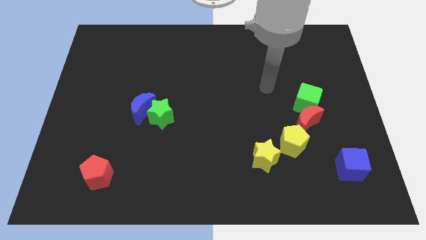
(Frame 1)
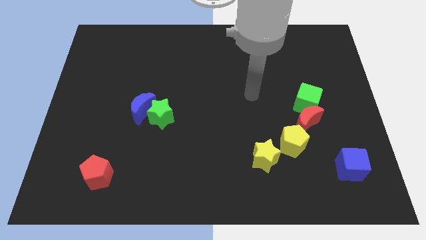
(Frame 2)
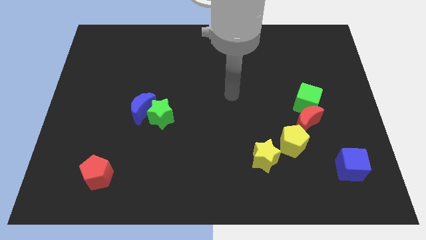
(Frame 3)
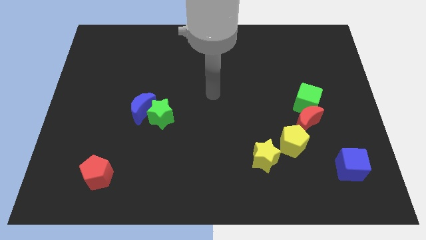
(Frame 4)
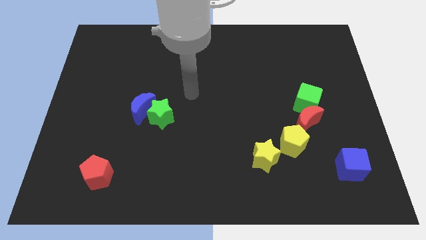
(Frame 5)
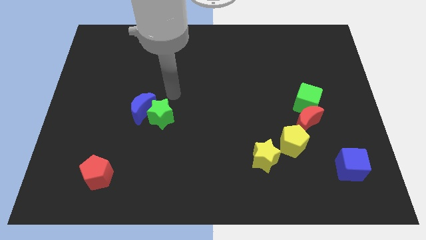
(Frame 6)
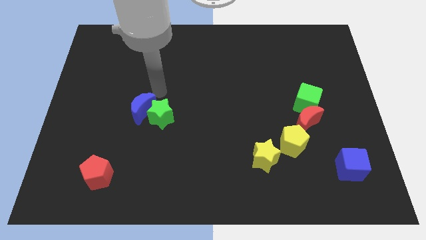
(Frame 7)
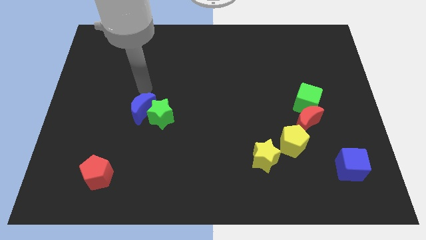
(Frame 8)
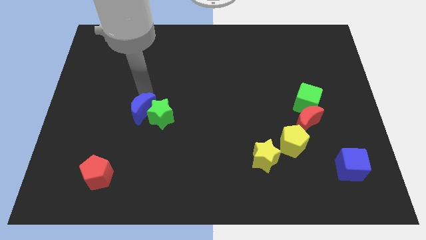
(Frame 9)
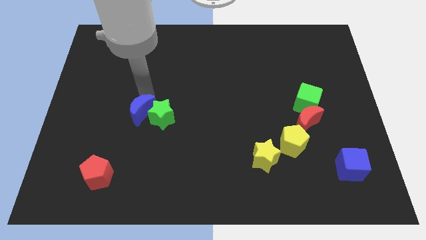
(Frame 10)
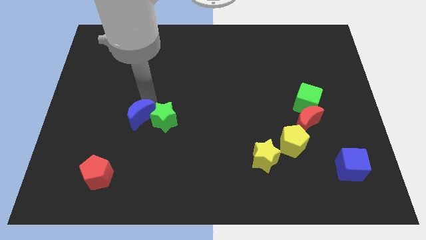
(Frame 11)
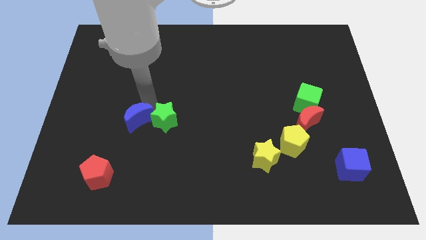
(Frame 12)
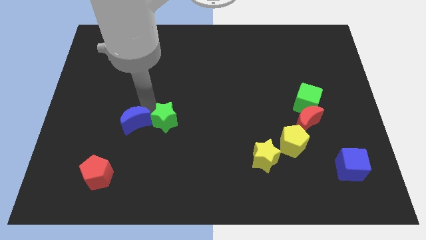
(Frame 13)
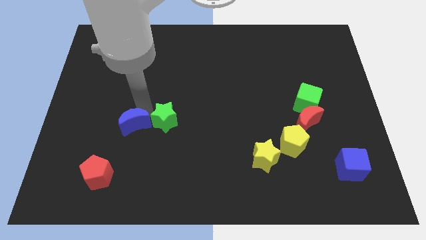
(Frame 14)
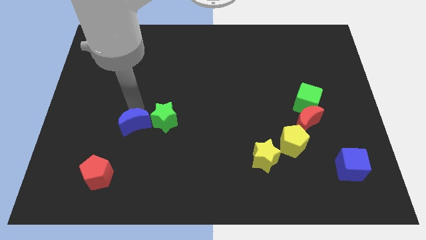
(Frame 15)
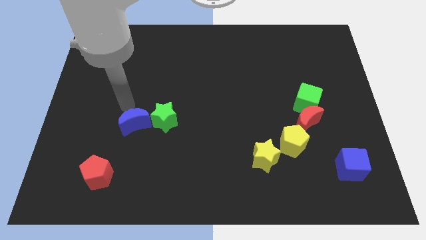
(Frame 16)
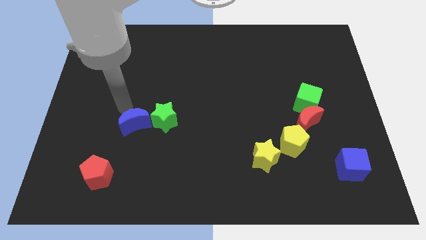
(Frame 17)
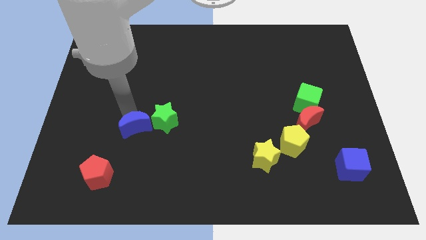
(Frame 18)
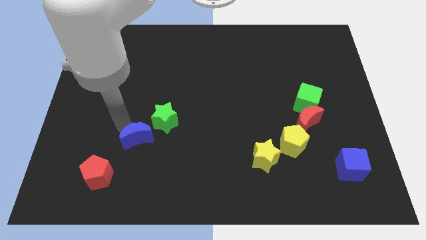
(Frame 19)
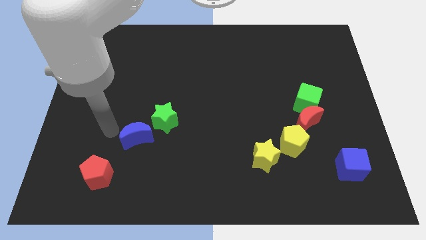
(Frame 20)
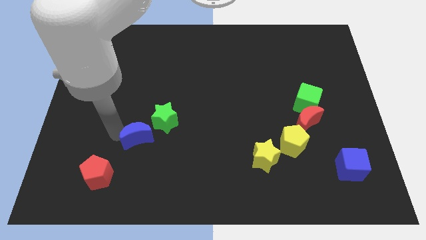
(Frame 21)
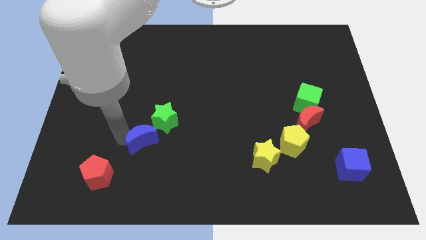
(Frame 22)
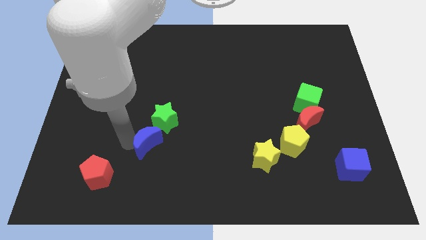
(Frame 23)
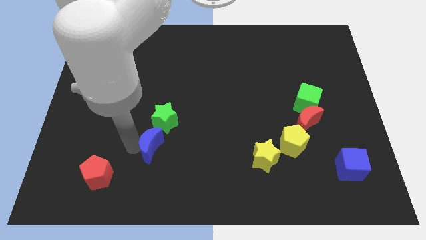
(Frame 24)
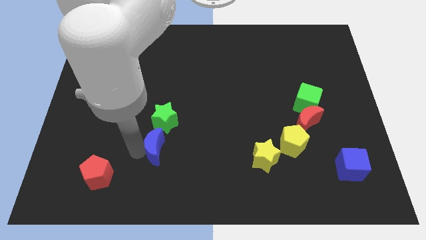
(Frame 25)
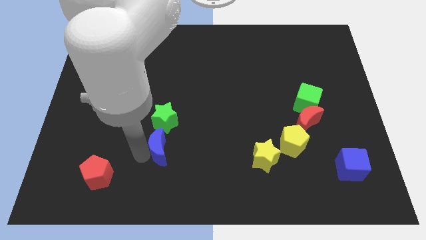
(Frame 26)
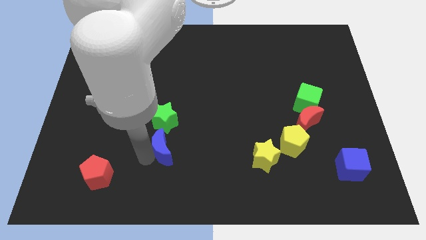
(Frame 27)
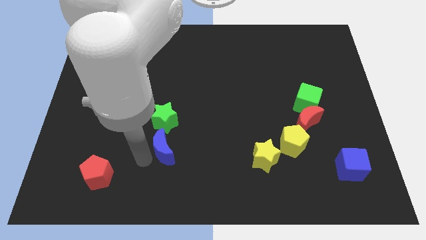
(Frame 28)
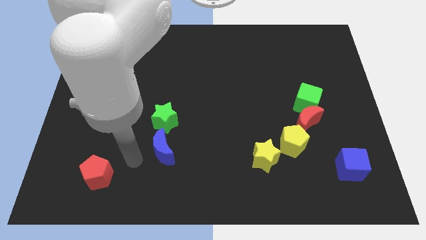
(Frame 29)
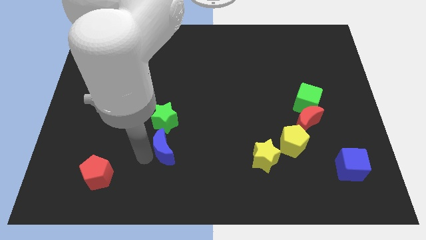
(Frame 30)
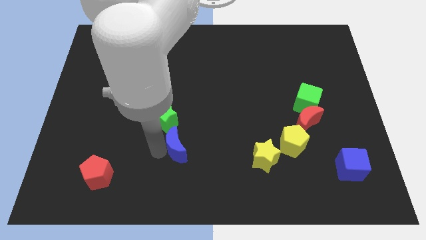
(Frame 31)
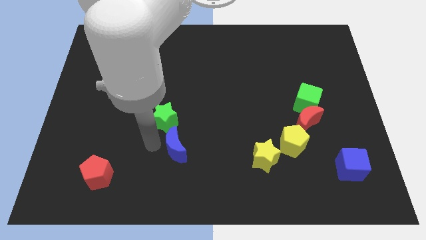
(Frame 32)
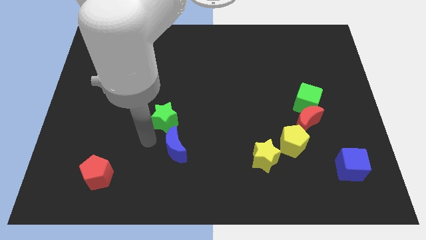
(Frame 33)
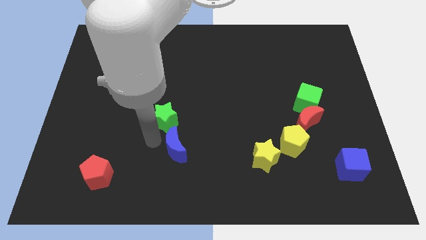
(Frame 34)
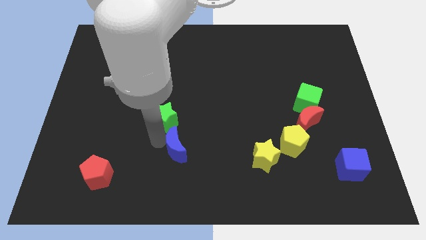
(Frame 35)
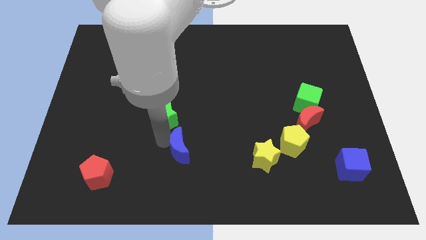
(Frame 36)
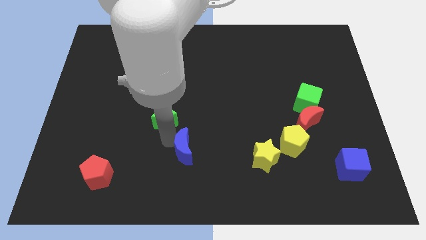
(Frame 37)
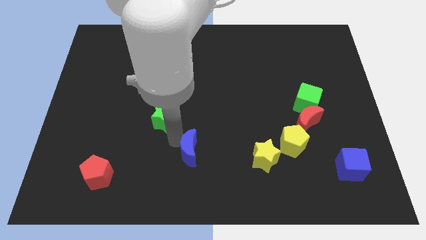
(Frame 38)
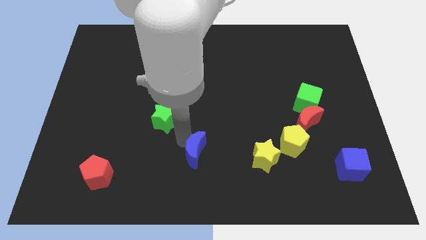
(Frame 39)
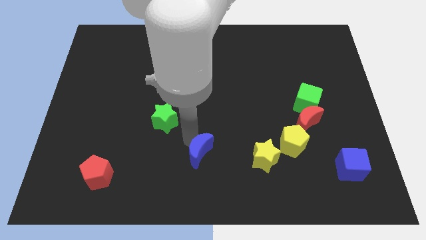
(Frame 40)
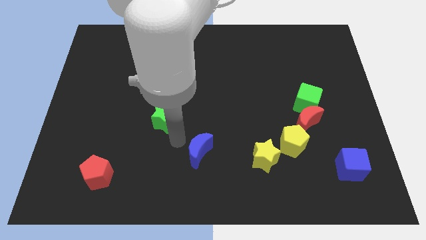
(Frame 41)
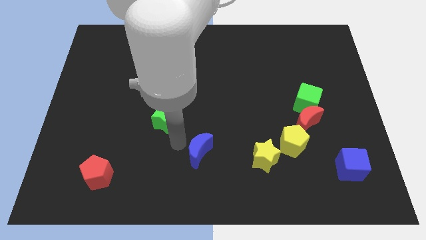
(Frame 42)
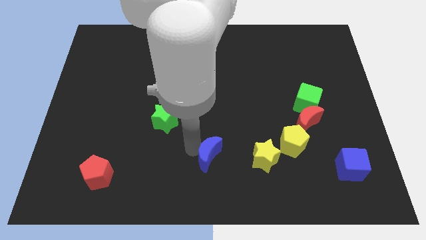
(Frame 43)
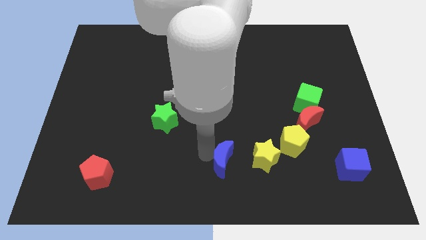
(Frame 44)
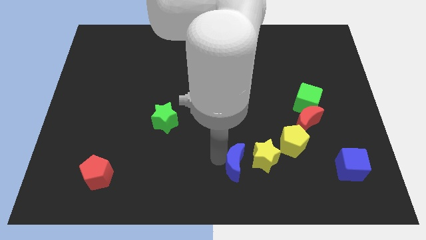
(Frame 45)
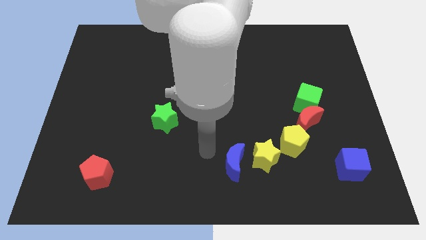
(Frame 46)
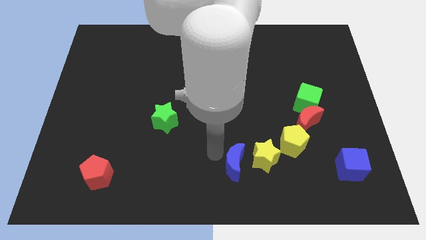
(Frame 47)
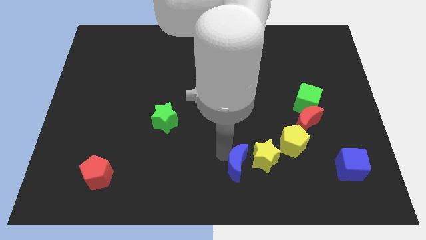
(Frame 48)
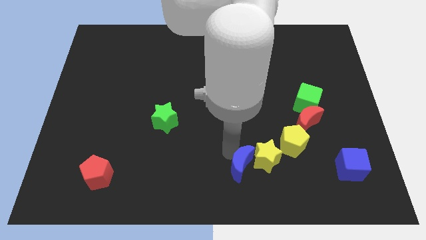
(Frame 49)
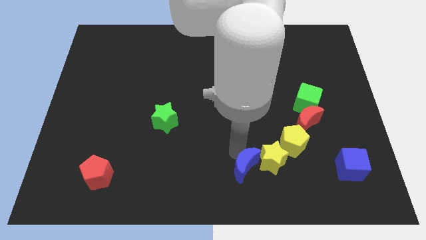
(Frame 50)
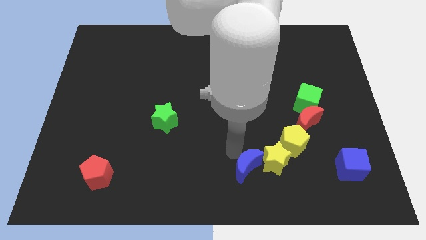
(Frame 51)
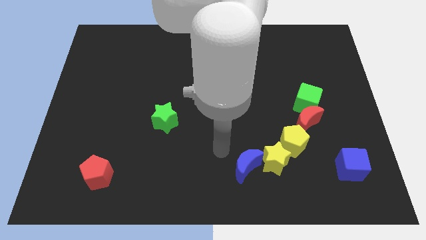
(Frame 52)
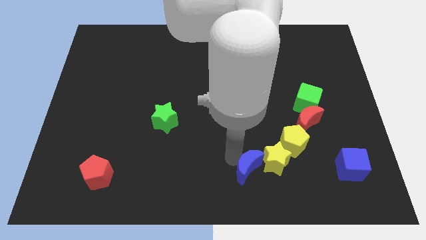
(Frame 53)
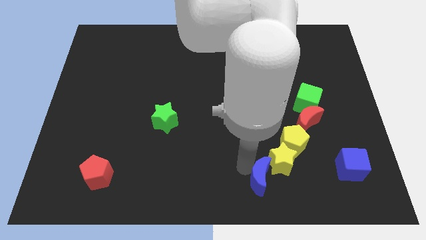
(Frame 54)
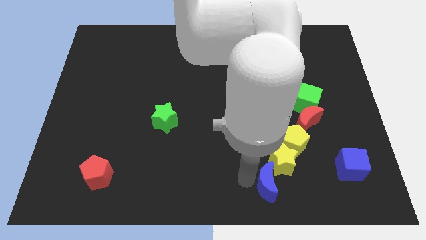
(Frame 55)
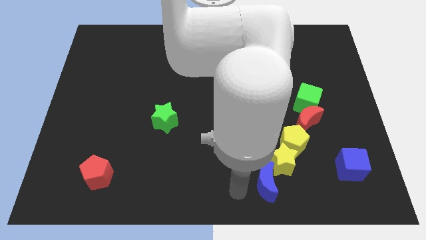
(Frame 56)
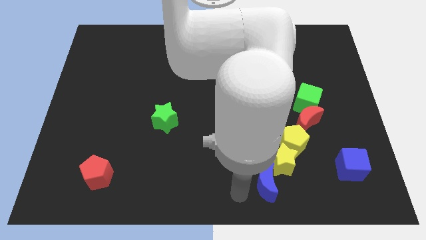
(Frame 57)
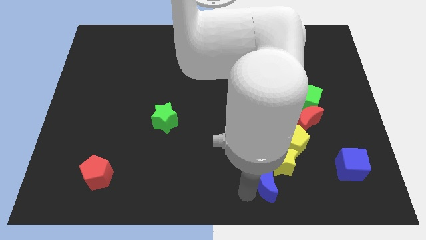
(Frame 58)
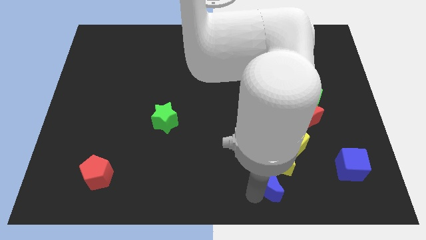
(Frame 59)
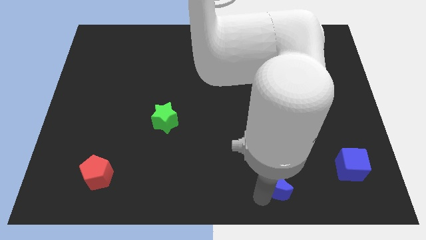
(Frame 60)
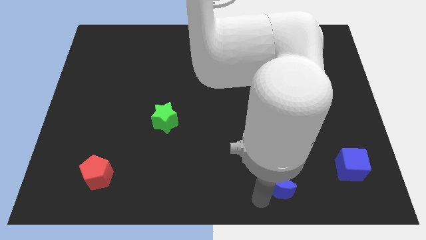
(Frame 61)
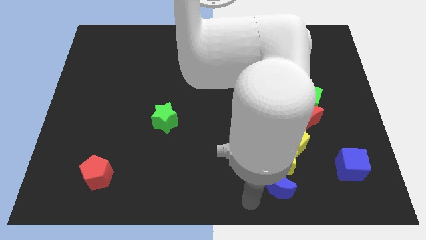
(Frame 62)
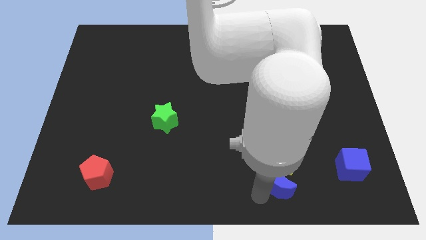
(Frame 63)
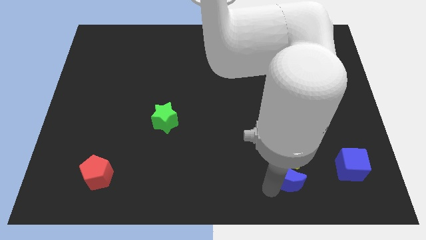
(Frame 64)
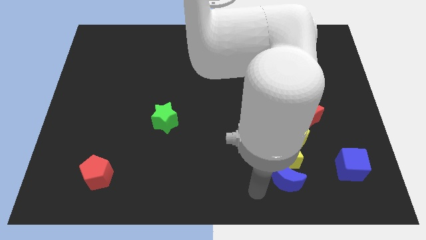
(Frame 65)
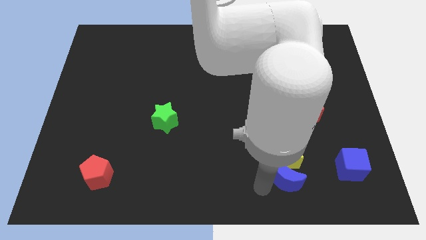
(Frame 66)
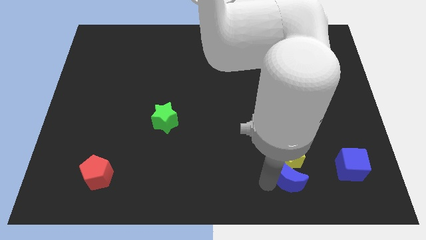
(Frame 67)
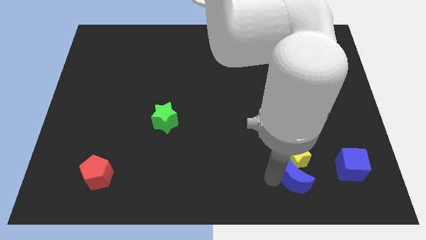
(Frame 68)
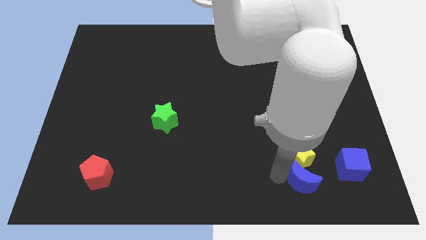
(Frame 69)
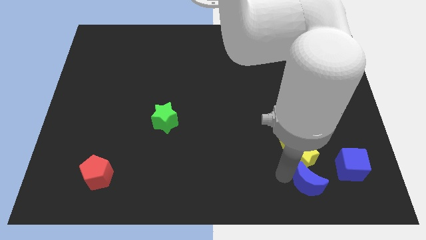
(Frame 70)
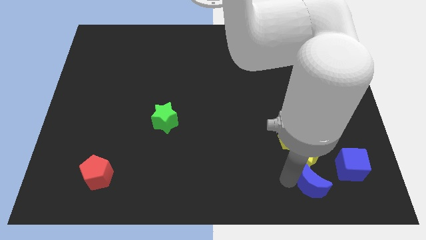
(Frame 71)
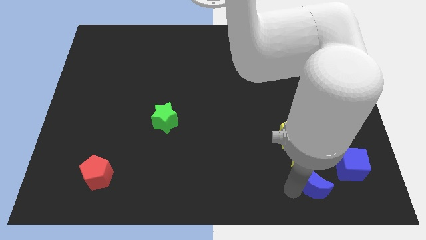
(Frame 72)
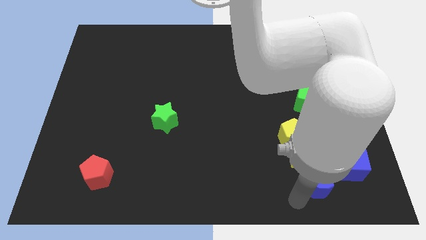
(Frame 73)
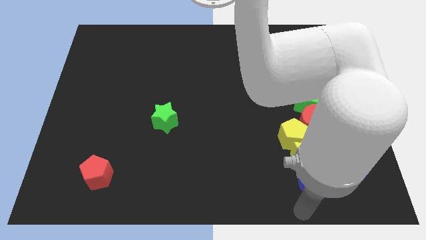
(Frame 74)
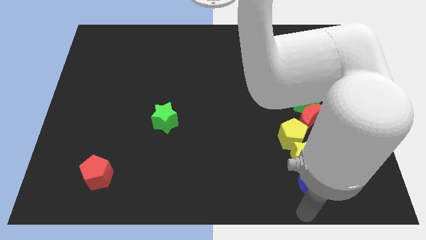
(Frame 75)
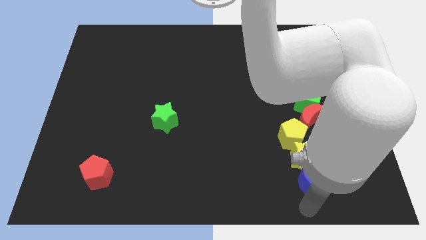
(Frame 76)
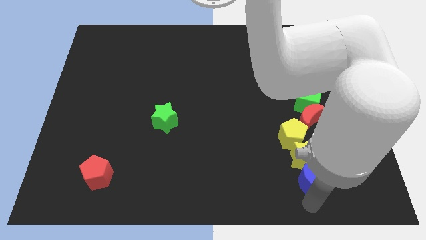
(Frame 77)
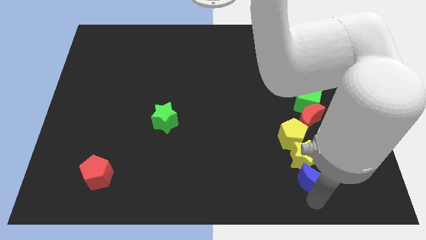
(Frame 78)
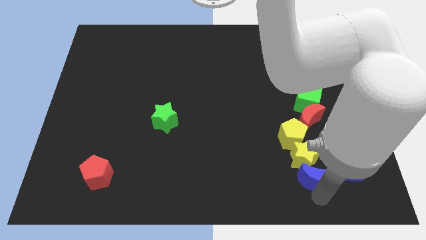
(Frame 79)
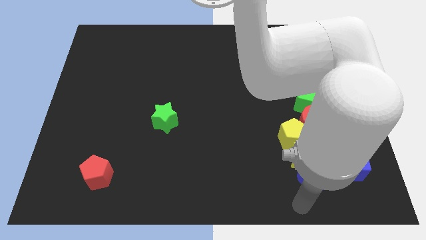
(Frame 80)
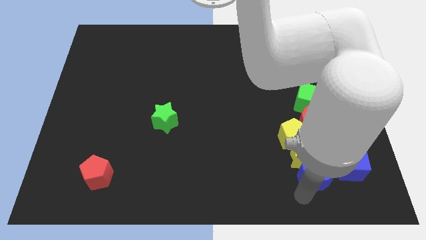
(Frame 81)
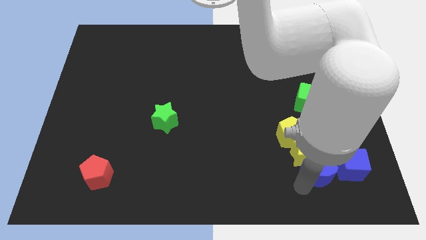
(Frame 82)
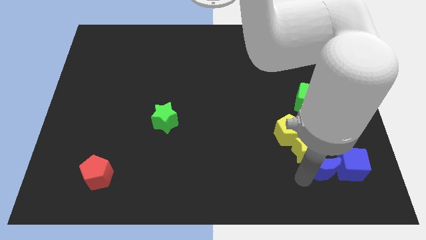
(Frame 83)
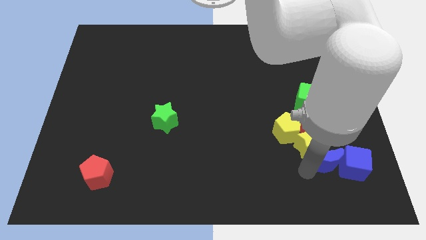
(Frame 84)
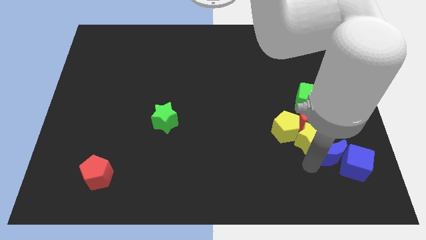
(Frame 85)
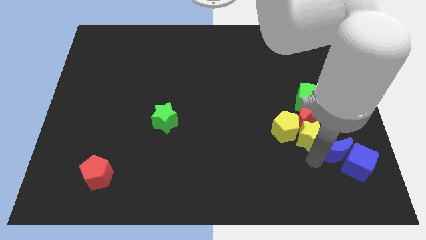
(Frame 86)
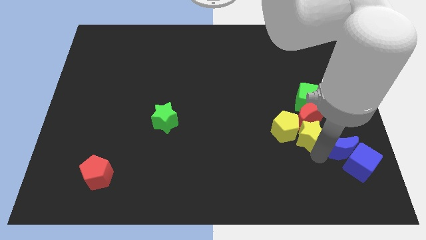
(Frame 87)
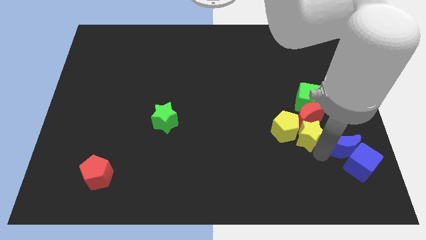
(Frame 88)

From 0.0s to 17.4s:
slide the blue moon to the right side of the yellow pentagon
